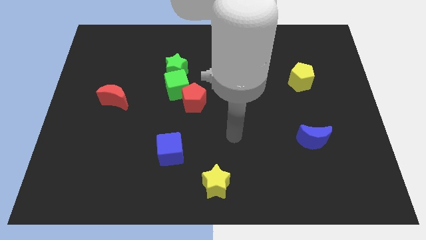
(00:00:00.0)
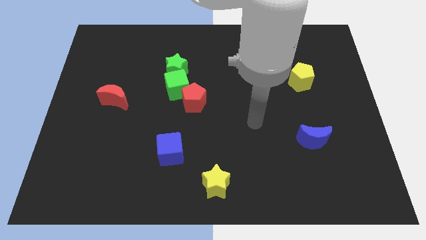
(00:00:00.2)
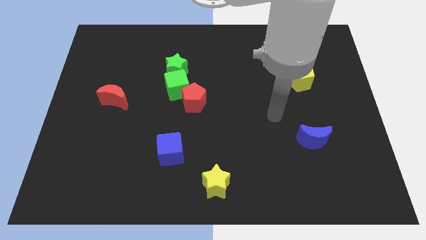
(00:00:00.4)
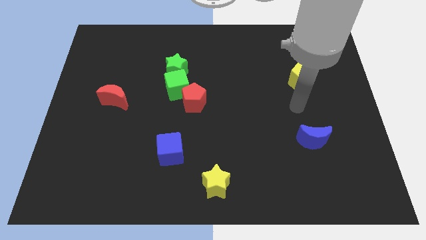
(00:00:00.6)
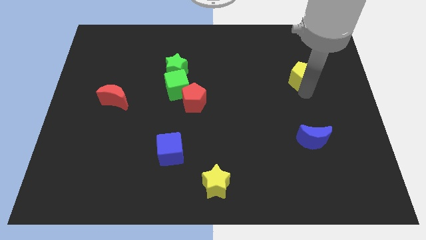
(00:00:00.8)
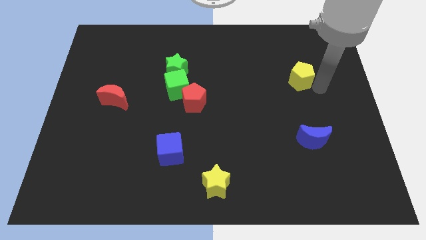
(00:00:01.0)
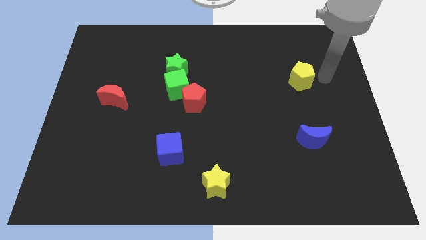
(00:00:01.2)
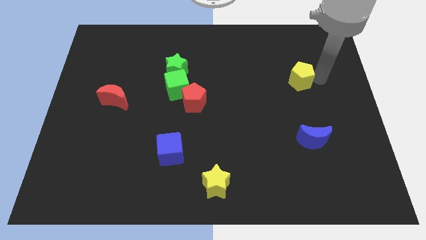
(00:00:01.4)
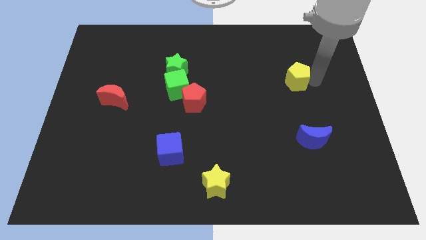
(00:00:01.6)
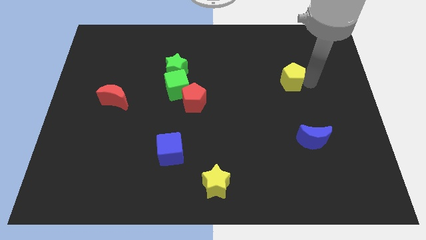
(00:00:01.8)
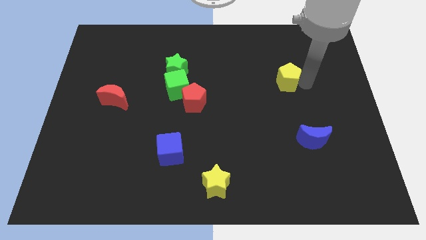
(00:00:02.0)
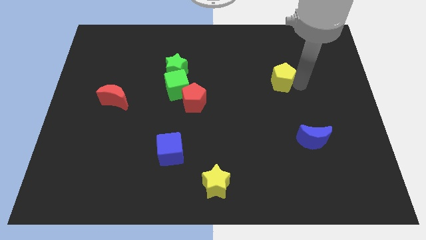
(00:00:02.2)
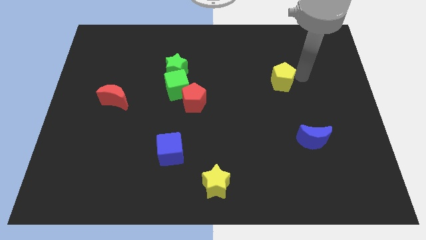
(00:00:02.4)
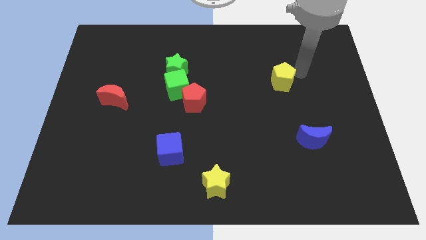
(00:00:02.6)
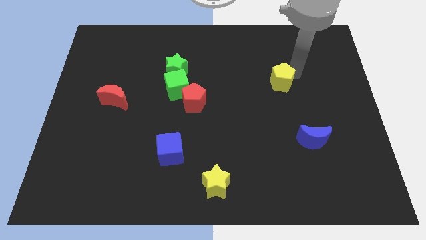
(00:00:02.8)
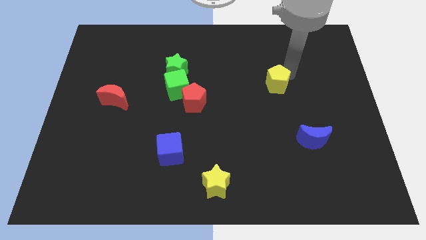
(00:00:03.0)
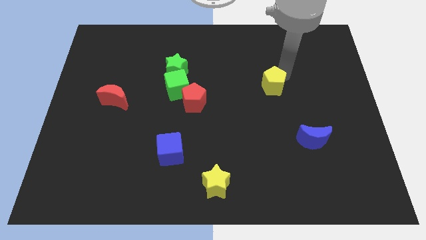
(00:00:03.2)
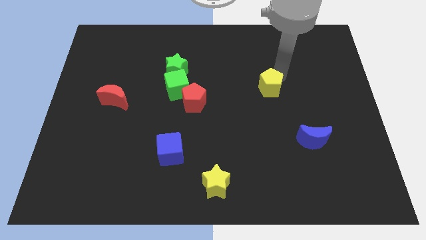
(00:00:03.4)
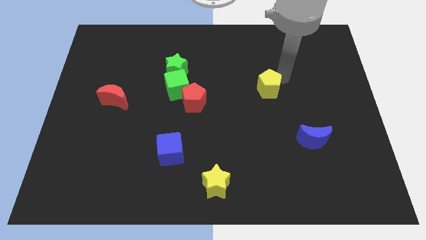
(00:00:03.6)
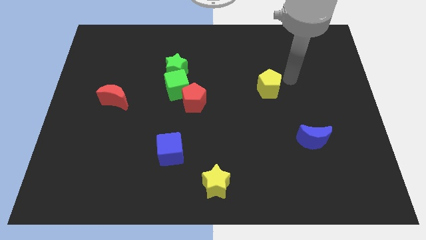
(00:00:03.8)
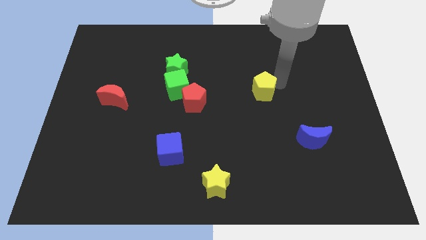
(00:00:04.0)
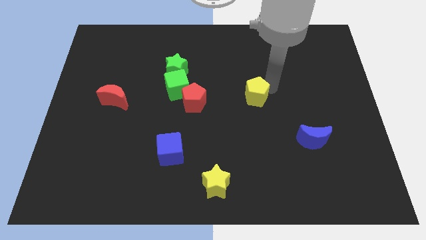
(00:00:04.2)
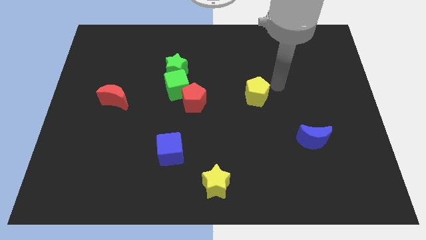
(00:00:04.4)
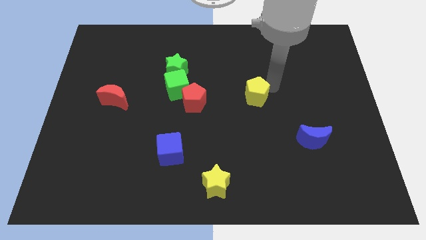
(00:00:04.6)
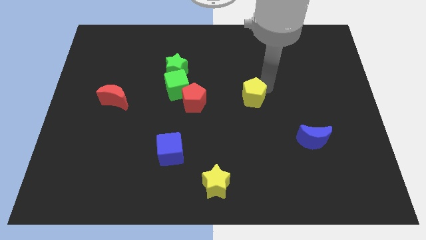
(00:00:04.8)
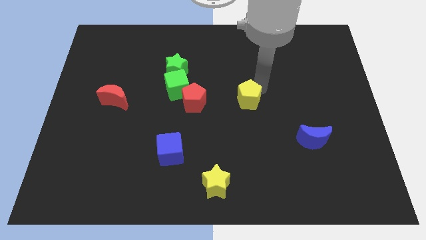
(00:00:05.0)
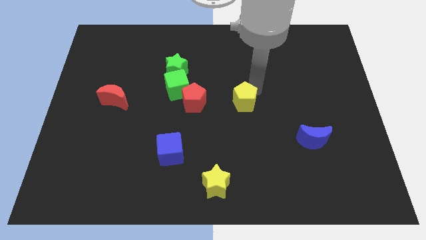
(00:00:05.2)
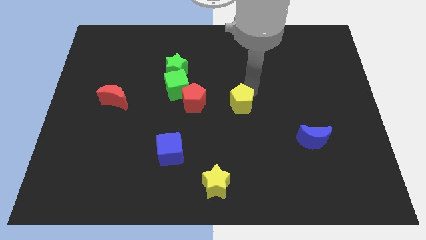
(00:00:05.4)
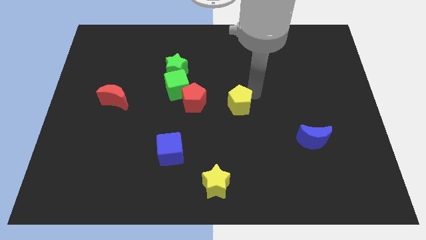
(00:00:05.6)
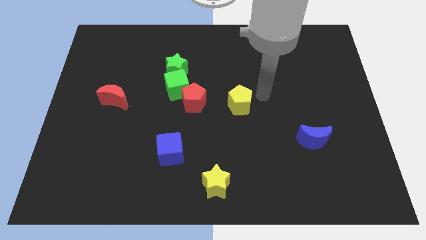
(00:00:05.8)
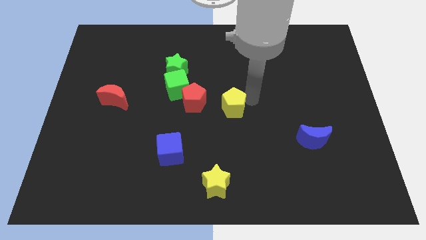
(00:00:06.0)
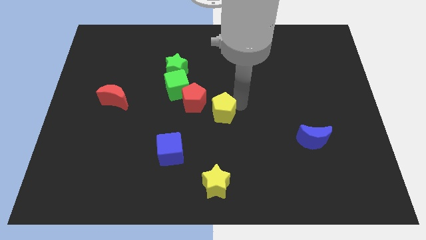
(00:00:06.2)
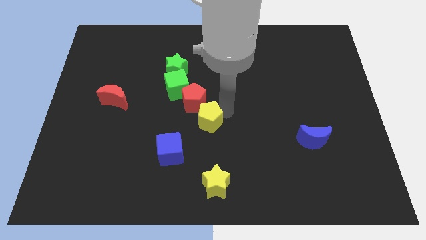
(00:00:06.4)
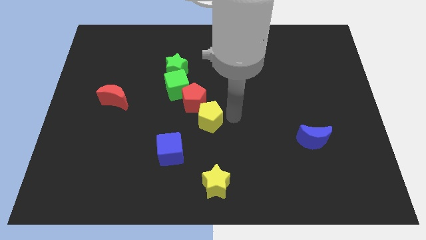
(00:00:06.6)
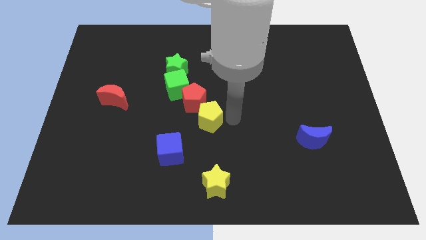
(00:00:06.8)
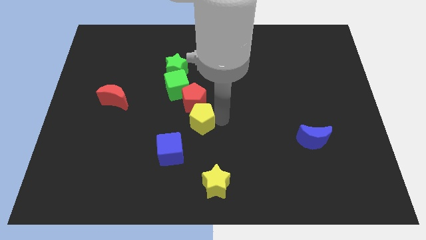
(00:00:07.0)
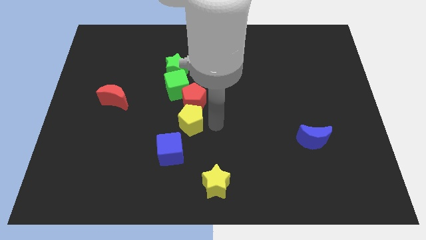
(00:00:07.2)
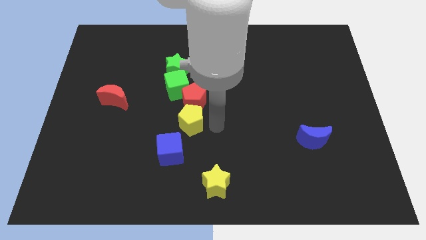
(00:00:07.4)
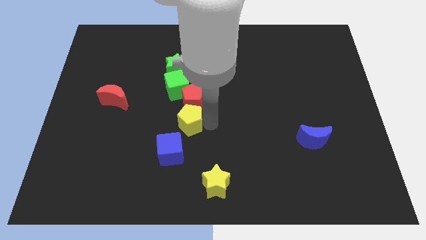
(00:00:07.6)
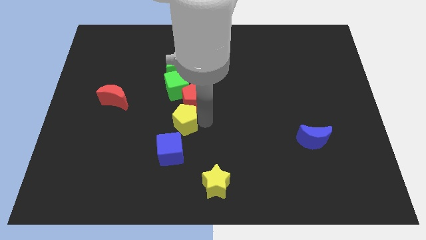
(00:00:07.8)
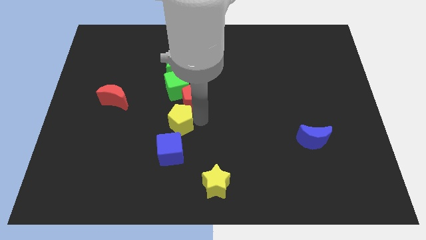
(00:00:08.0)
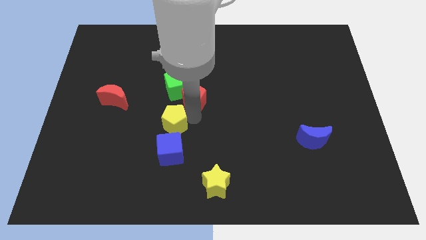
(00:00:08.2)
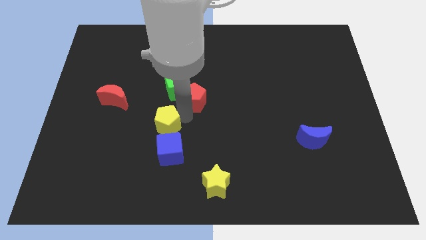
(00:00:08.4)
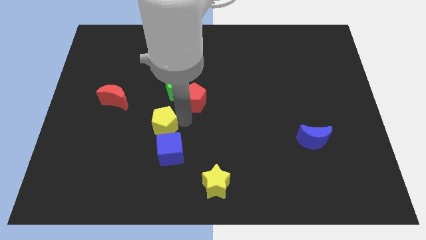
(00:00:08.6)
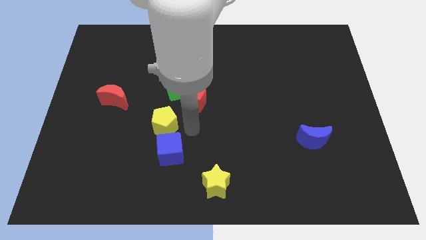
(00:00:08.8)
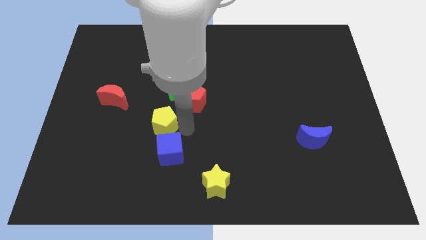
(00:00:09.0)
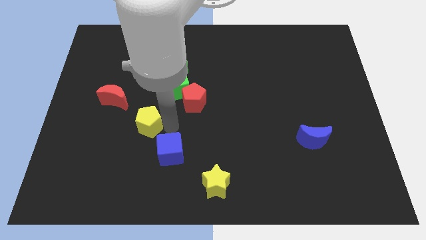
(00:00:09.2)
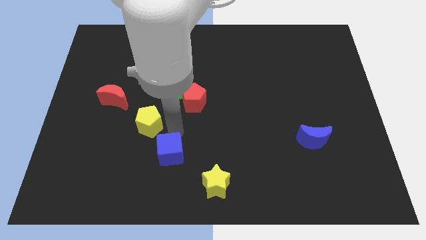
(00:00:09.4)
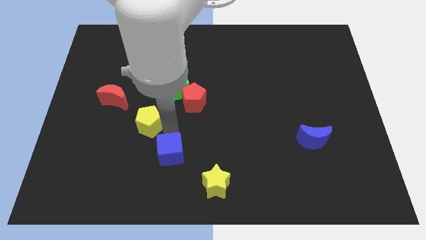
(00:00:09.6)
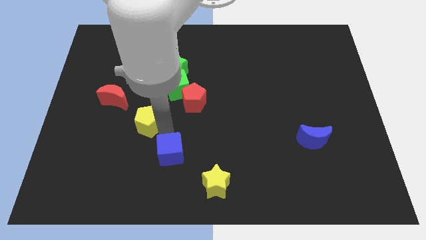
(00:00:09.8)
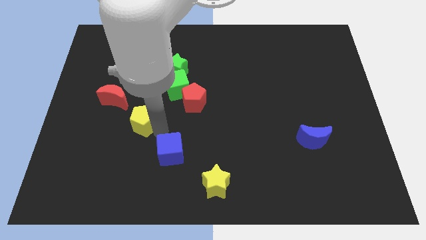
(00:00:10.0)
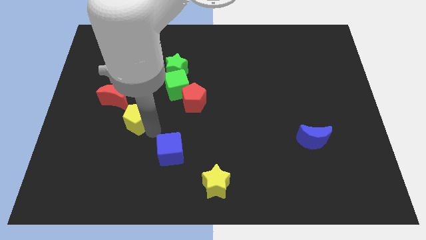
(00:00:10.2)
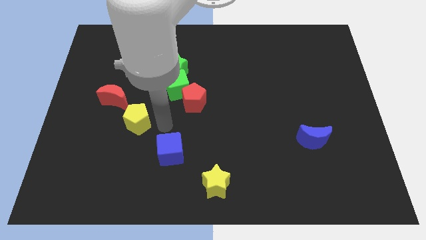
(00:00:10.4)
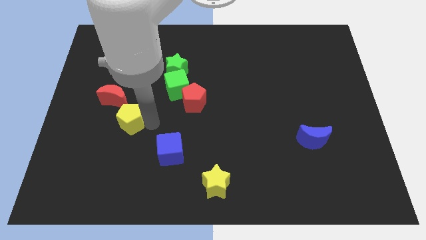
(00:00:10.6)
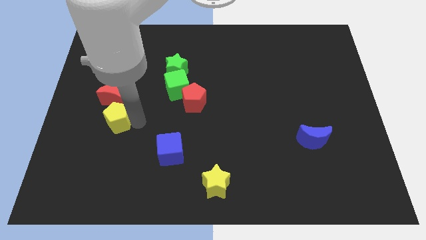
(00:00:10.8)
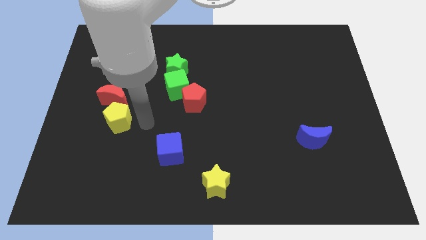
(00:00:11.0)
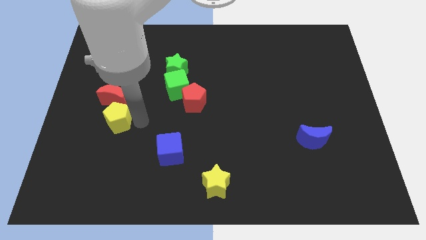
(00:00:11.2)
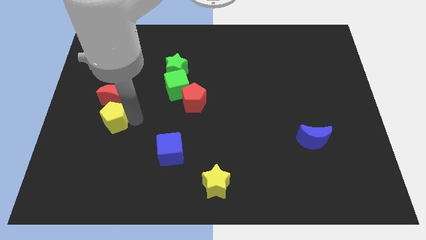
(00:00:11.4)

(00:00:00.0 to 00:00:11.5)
push the yellow pentagon diagonally down and to the left of the red moon

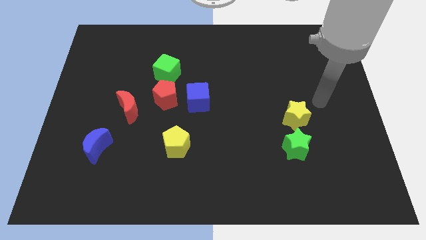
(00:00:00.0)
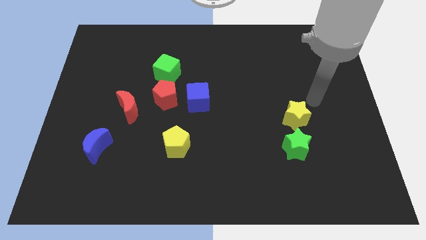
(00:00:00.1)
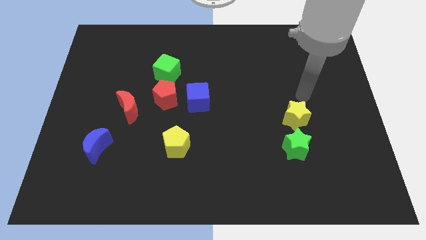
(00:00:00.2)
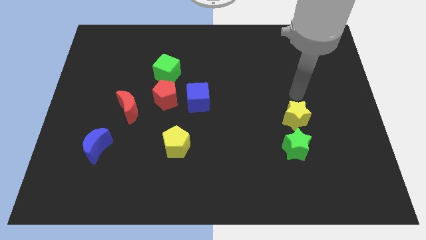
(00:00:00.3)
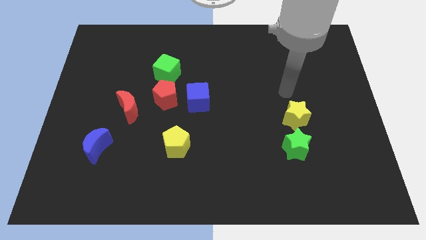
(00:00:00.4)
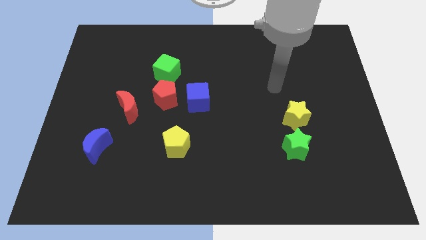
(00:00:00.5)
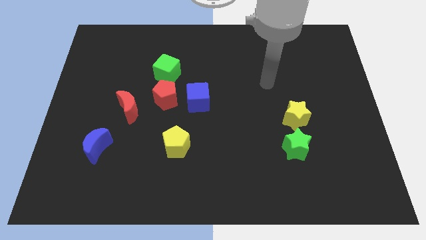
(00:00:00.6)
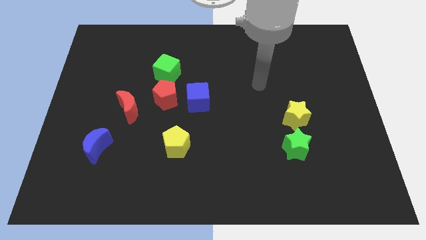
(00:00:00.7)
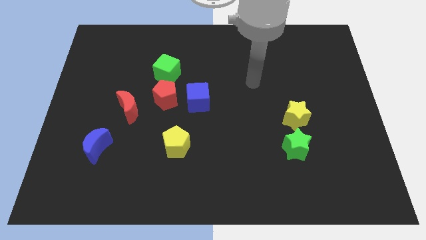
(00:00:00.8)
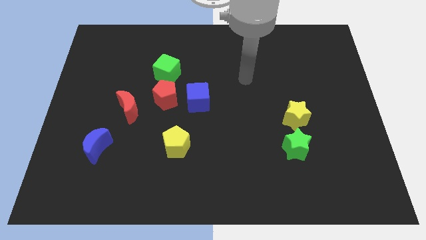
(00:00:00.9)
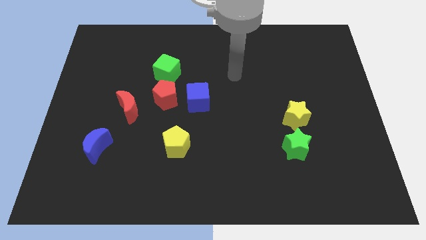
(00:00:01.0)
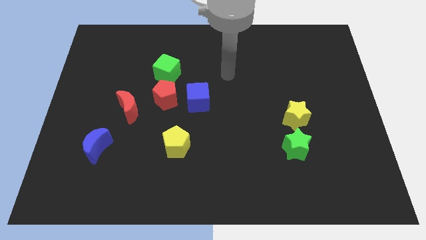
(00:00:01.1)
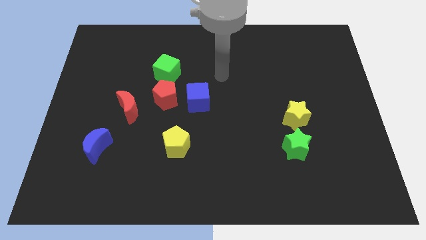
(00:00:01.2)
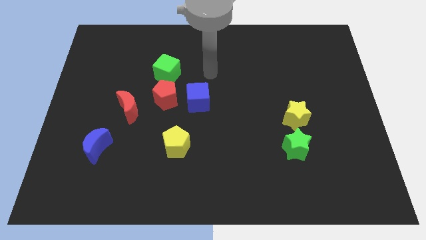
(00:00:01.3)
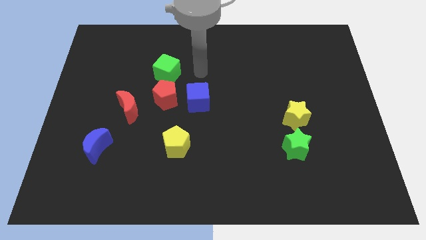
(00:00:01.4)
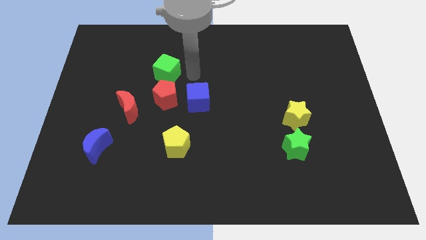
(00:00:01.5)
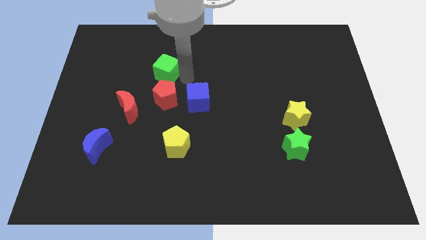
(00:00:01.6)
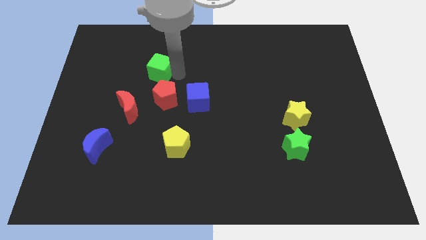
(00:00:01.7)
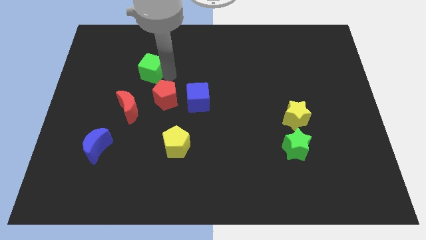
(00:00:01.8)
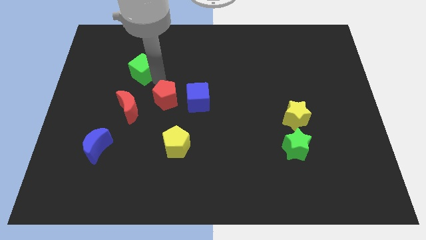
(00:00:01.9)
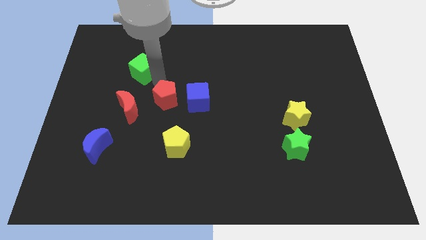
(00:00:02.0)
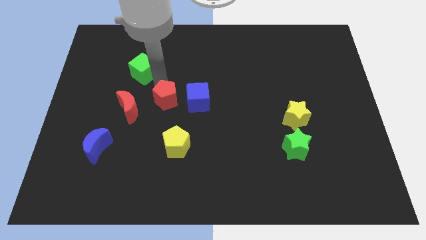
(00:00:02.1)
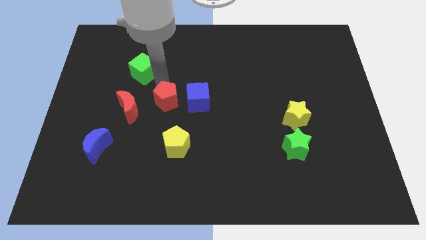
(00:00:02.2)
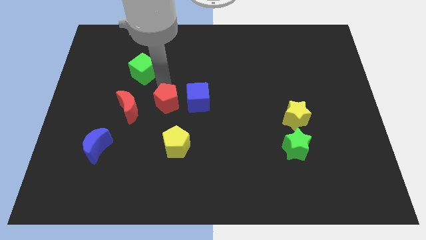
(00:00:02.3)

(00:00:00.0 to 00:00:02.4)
slide the red pentagon to the bottom left side of the blue cube
